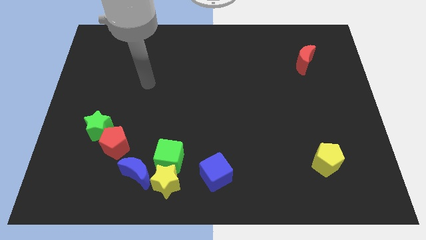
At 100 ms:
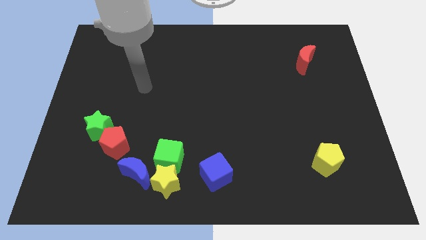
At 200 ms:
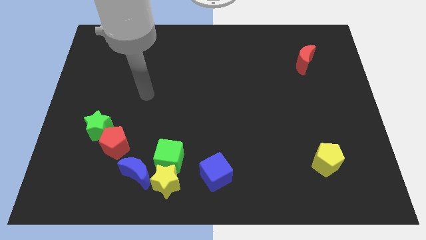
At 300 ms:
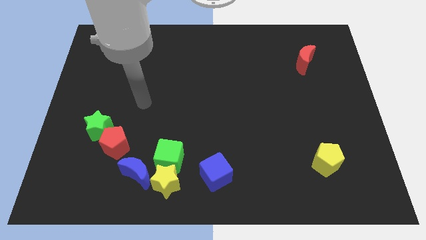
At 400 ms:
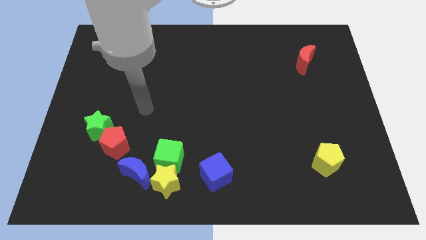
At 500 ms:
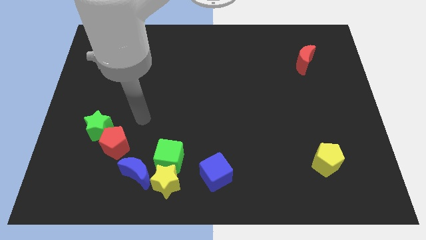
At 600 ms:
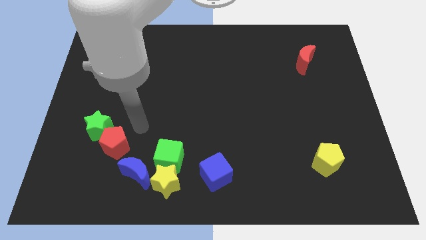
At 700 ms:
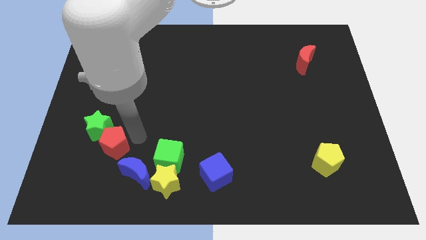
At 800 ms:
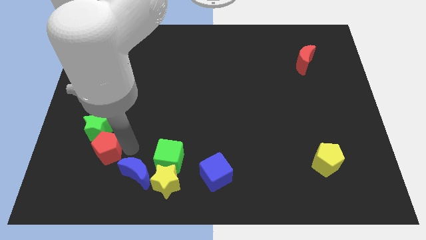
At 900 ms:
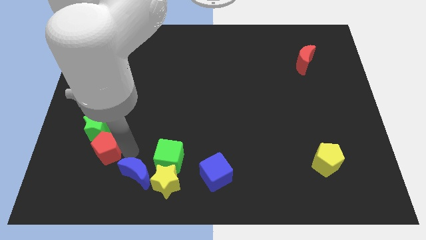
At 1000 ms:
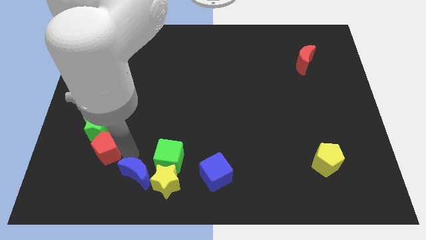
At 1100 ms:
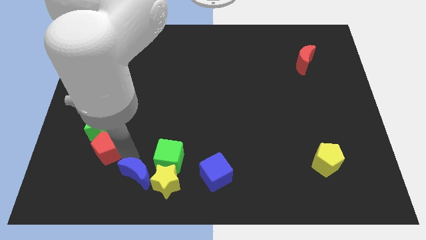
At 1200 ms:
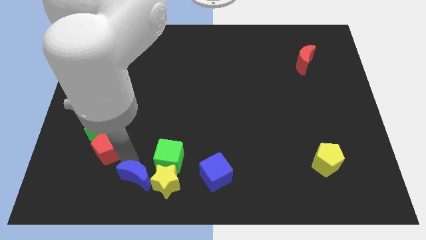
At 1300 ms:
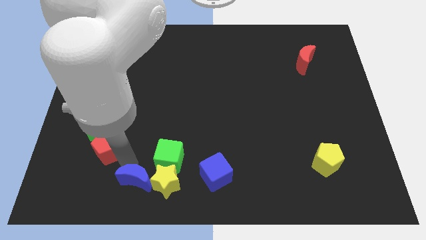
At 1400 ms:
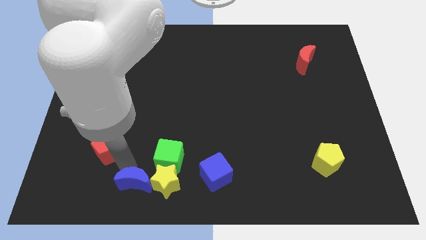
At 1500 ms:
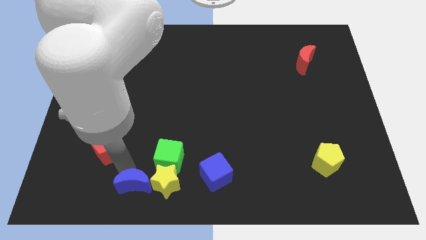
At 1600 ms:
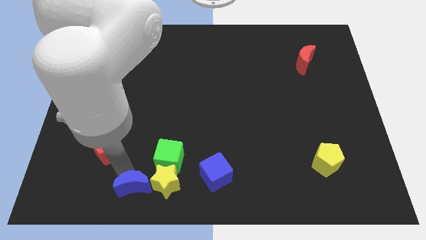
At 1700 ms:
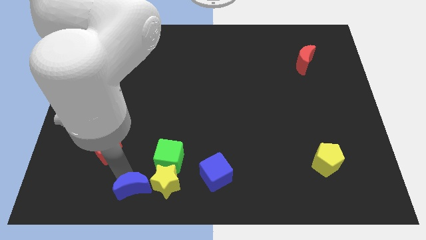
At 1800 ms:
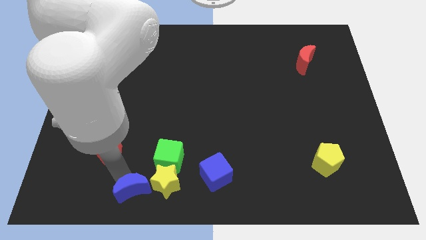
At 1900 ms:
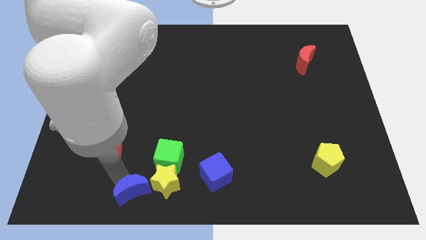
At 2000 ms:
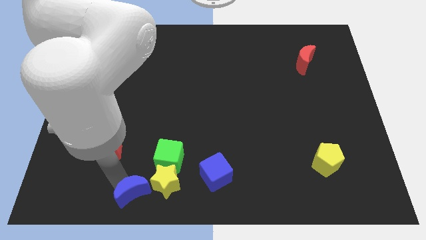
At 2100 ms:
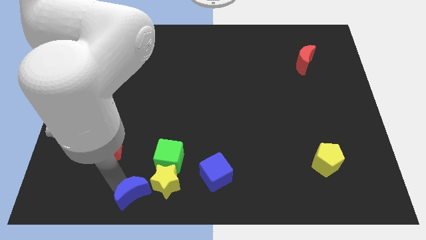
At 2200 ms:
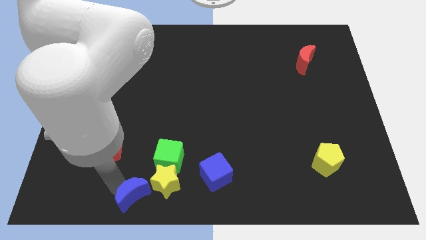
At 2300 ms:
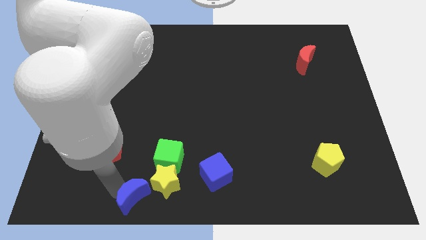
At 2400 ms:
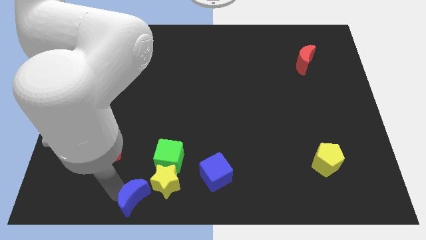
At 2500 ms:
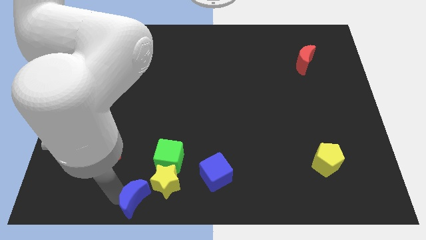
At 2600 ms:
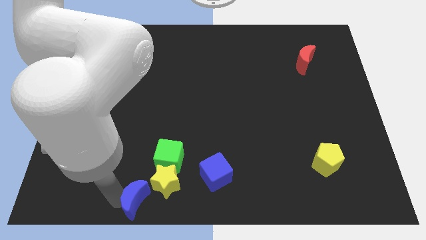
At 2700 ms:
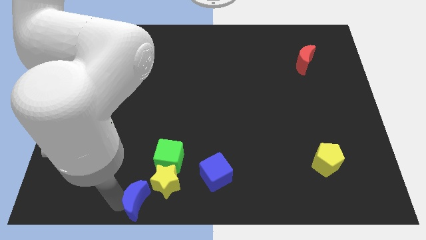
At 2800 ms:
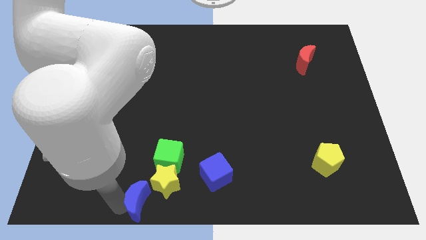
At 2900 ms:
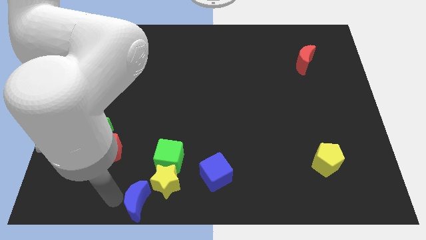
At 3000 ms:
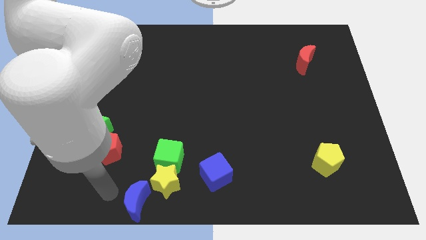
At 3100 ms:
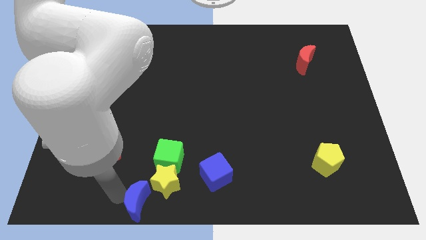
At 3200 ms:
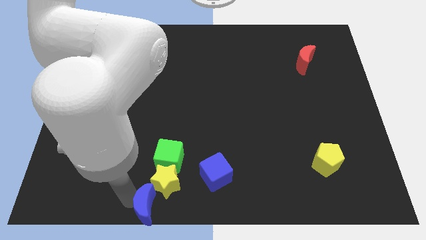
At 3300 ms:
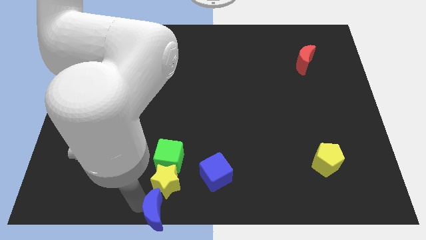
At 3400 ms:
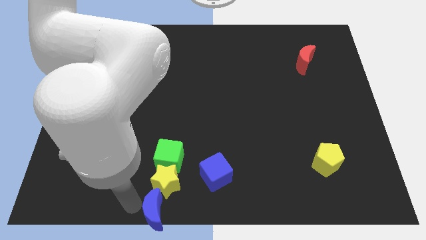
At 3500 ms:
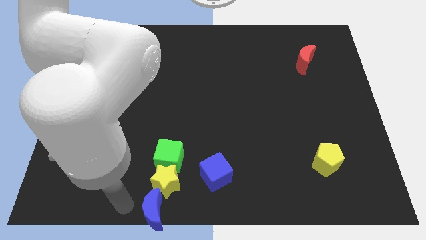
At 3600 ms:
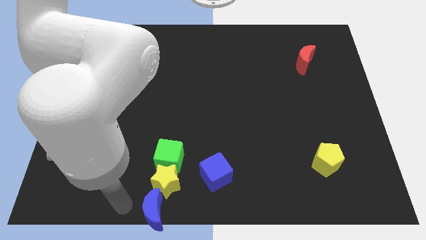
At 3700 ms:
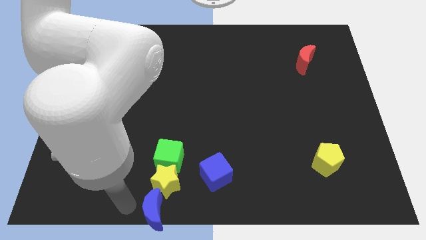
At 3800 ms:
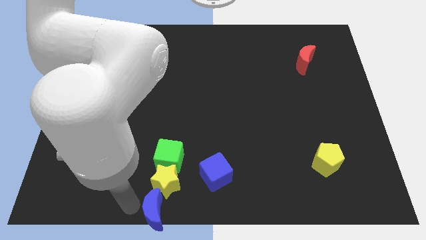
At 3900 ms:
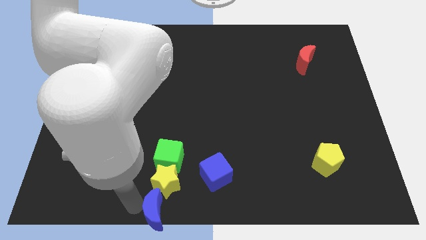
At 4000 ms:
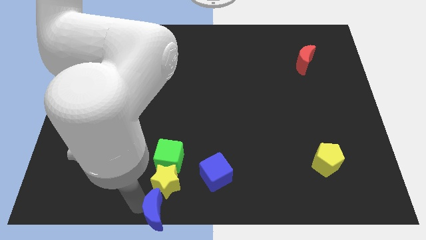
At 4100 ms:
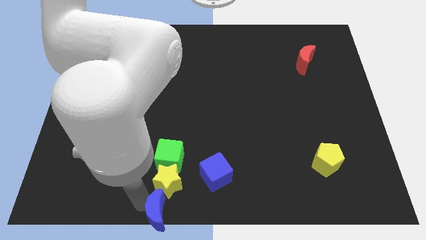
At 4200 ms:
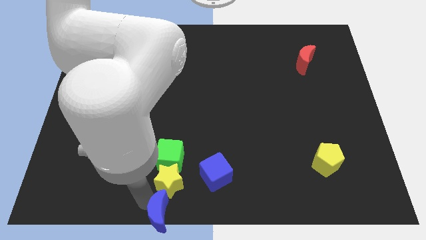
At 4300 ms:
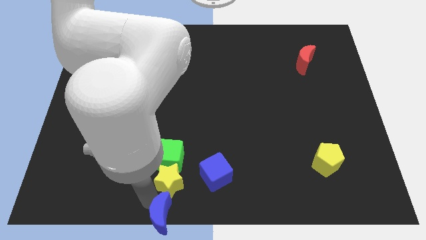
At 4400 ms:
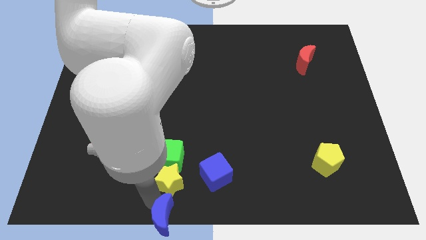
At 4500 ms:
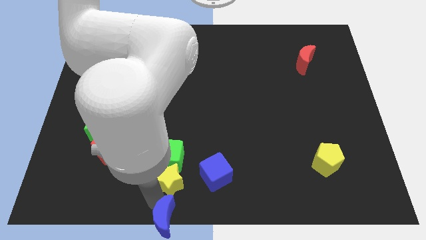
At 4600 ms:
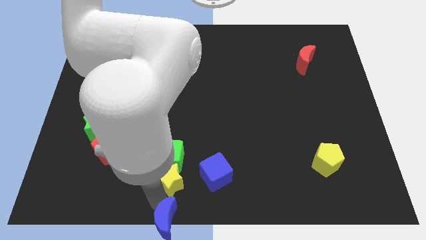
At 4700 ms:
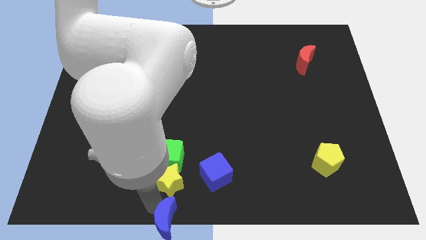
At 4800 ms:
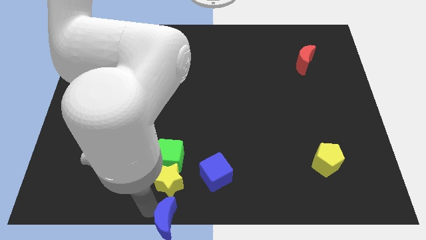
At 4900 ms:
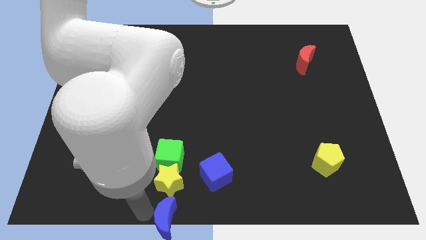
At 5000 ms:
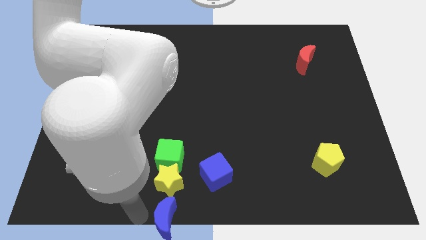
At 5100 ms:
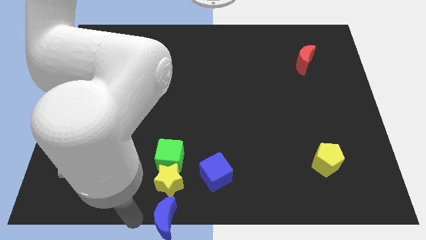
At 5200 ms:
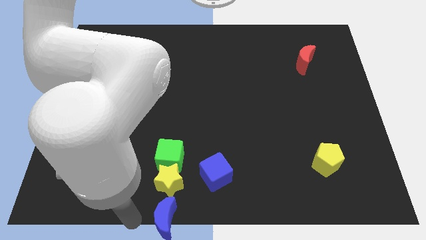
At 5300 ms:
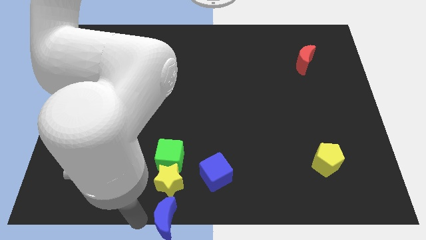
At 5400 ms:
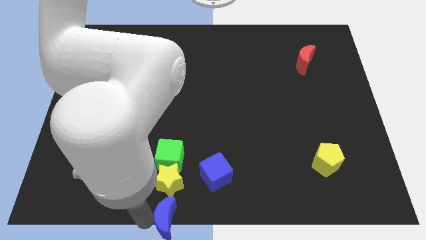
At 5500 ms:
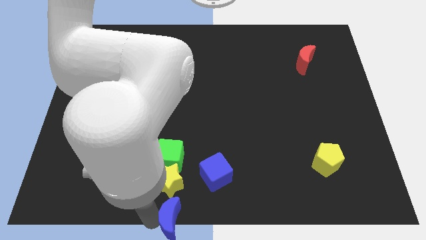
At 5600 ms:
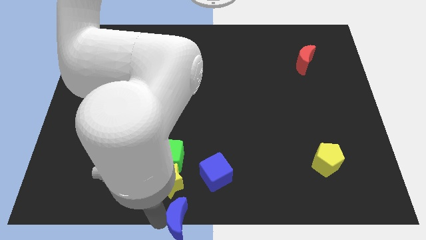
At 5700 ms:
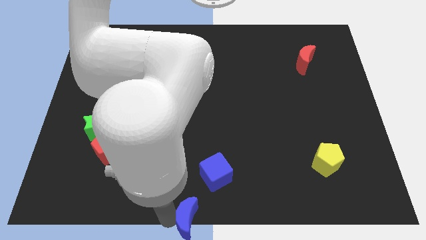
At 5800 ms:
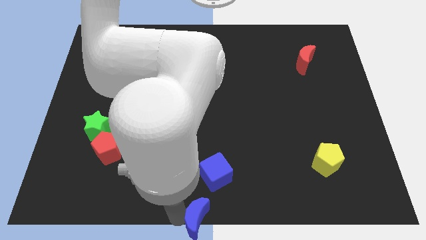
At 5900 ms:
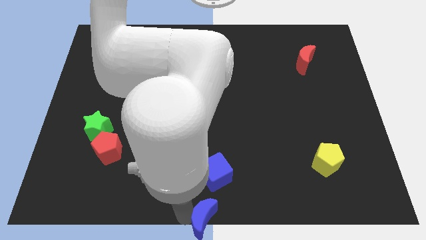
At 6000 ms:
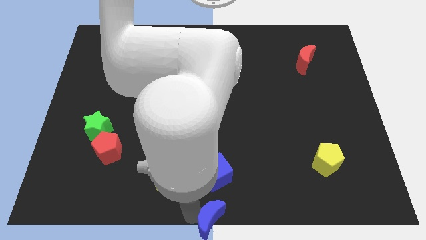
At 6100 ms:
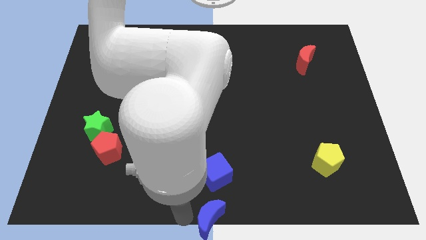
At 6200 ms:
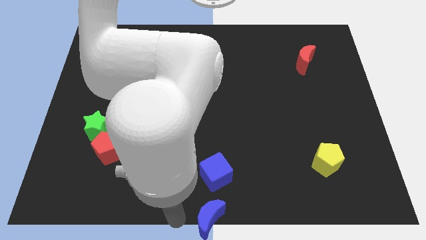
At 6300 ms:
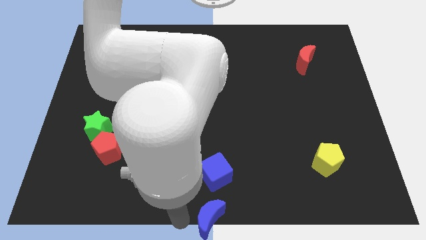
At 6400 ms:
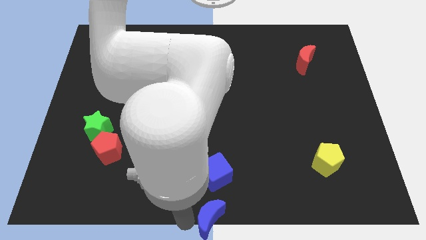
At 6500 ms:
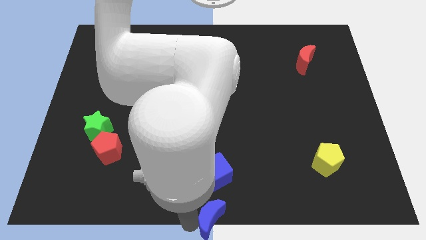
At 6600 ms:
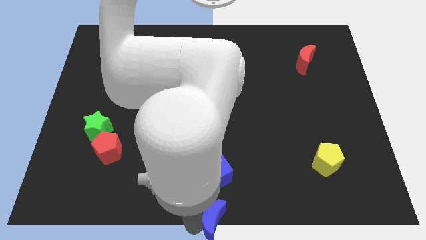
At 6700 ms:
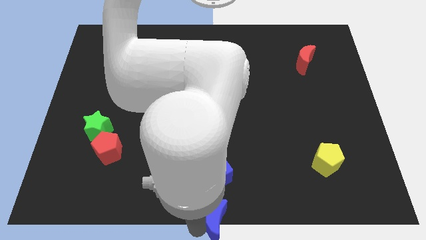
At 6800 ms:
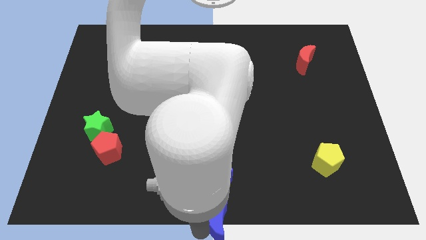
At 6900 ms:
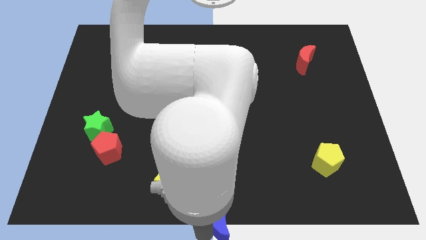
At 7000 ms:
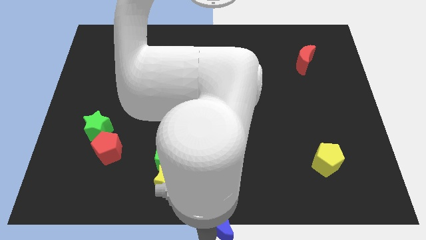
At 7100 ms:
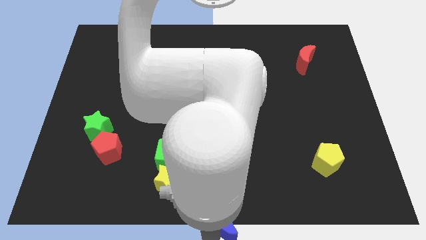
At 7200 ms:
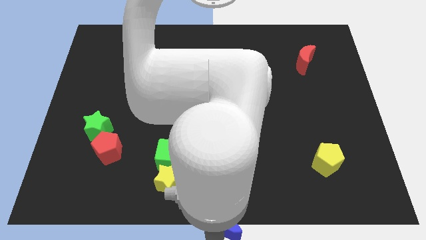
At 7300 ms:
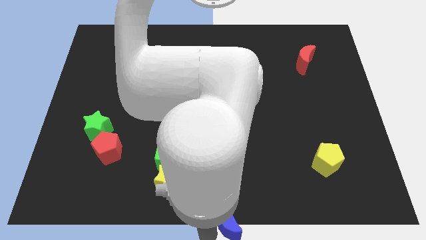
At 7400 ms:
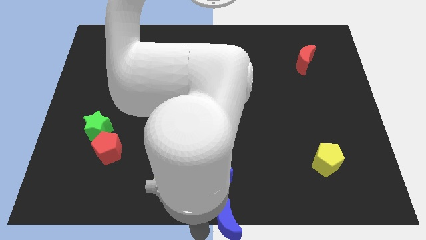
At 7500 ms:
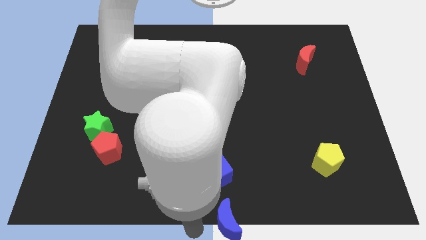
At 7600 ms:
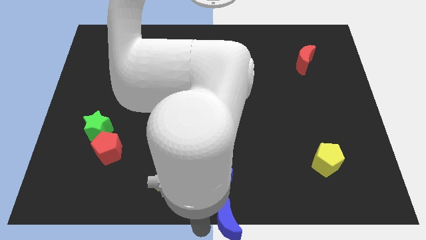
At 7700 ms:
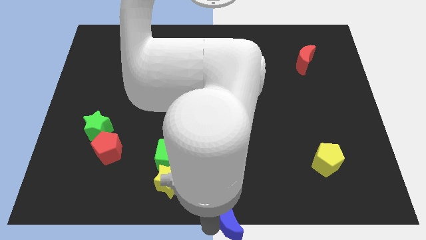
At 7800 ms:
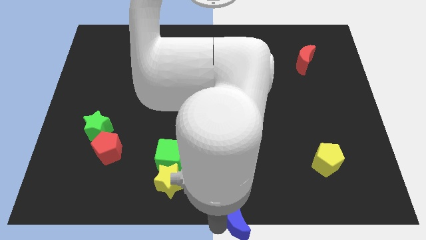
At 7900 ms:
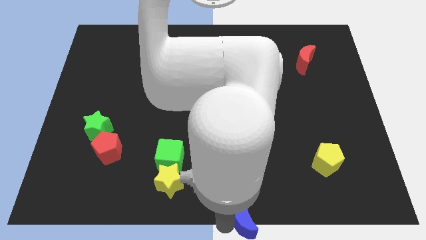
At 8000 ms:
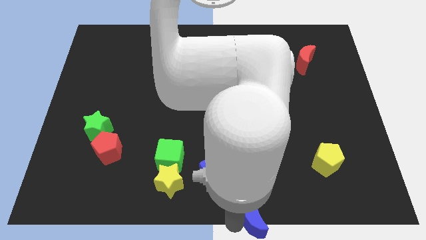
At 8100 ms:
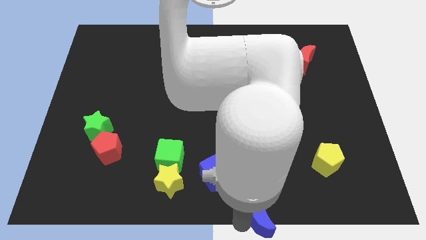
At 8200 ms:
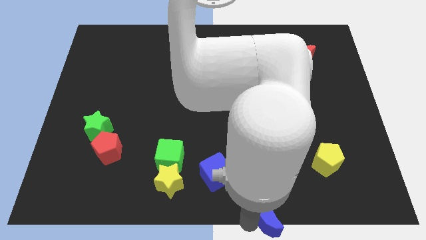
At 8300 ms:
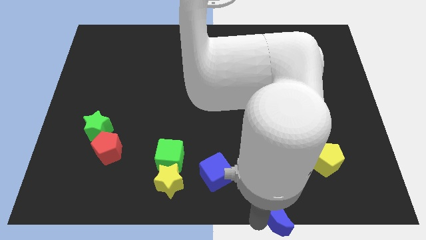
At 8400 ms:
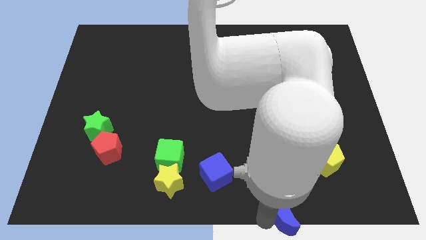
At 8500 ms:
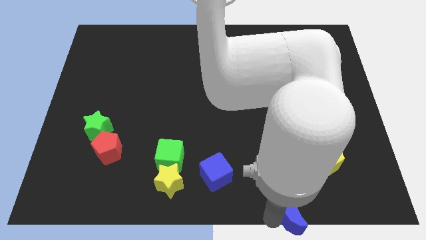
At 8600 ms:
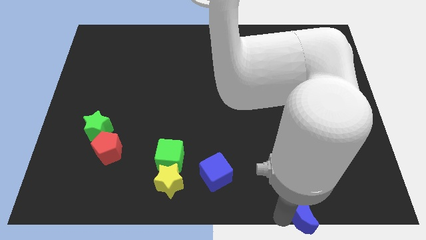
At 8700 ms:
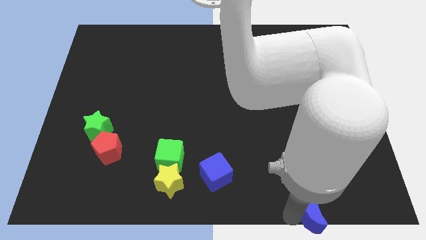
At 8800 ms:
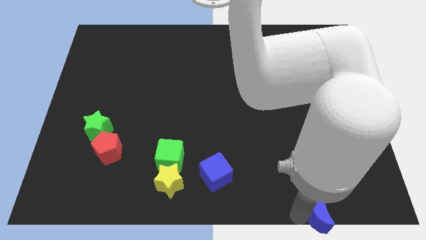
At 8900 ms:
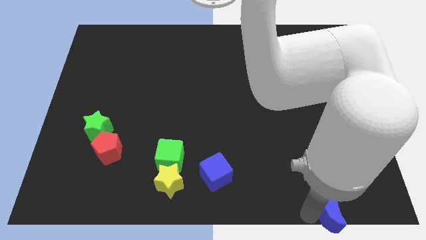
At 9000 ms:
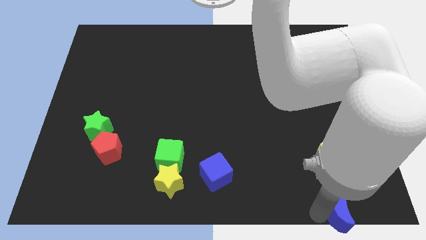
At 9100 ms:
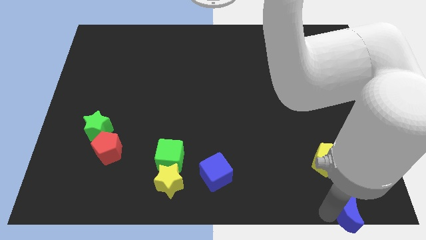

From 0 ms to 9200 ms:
push the blue moon to the bottom right
